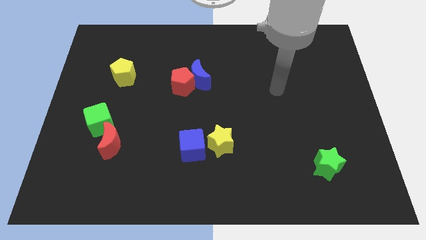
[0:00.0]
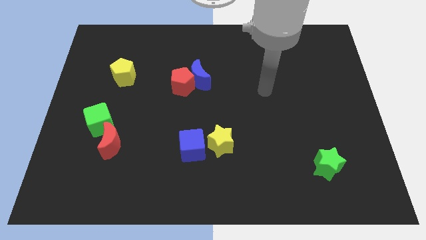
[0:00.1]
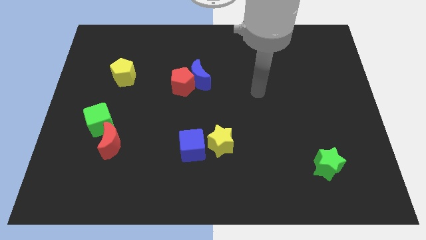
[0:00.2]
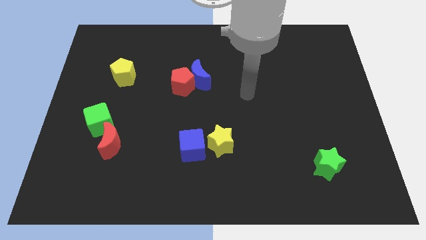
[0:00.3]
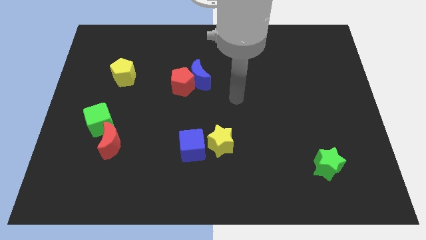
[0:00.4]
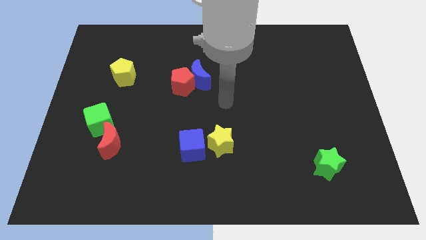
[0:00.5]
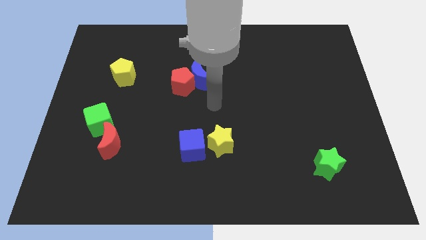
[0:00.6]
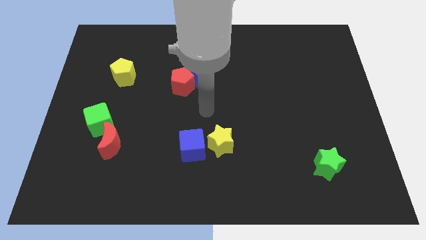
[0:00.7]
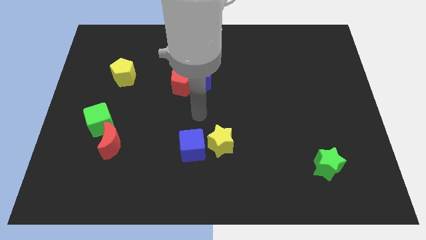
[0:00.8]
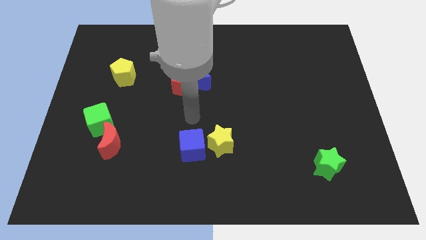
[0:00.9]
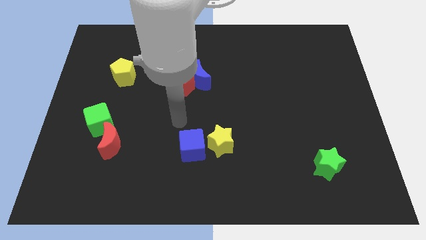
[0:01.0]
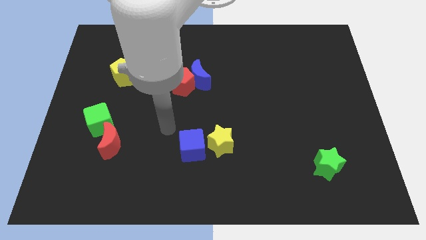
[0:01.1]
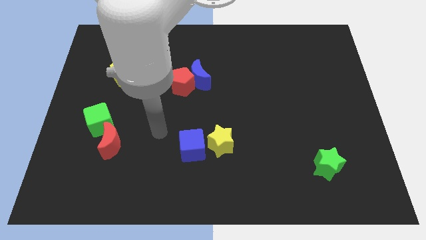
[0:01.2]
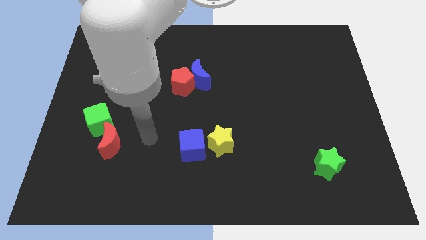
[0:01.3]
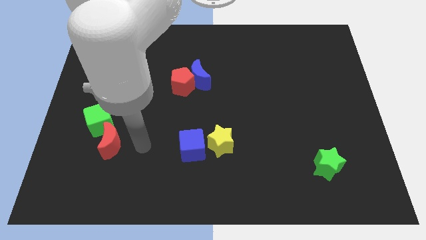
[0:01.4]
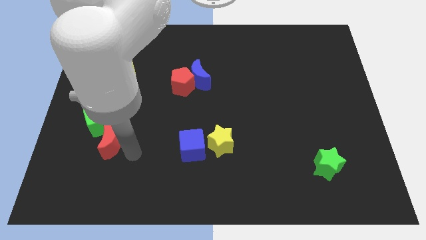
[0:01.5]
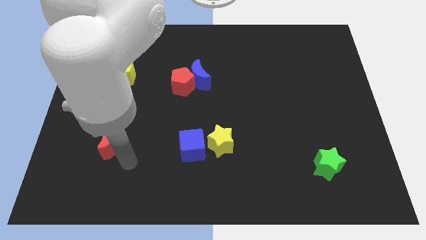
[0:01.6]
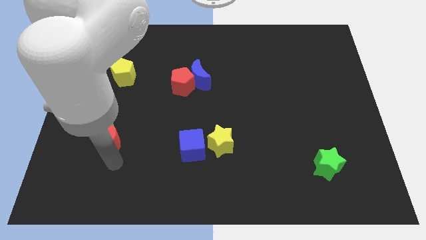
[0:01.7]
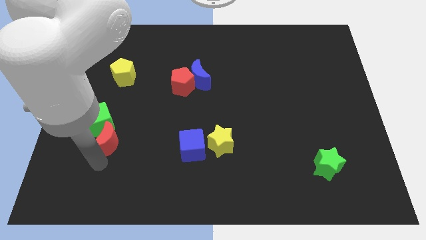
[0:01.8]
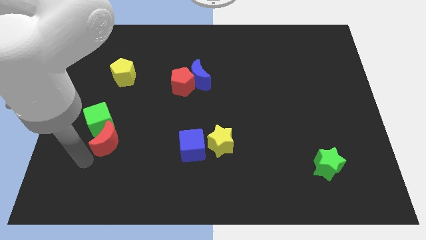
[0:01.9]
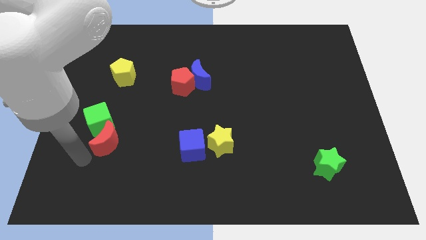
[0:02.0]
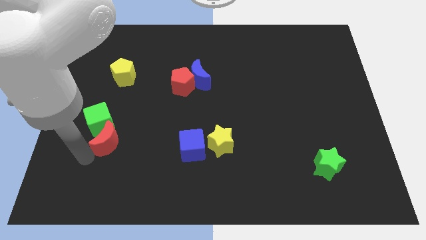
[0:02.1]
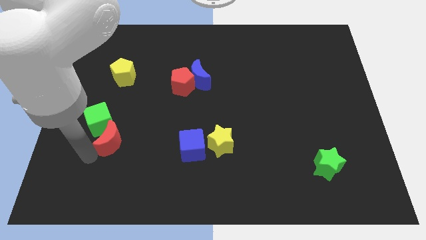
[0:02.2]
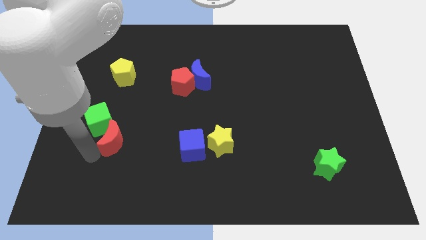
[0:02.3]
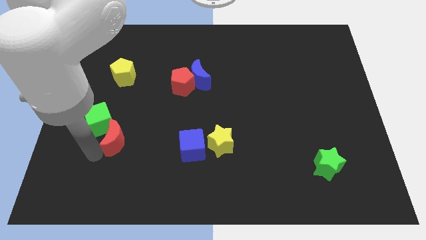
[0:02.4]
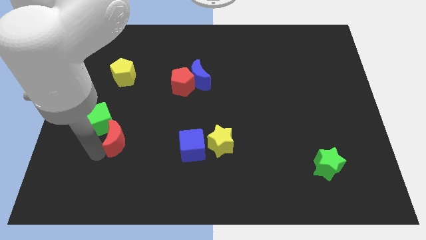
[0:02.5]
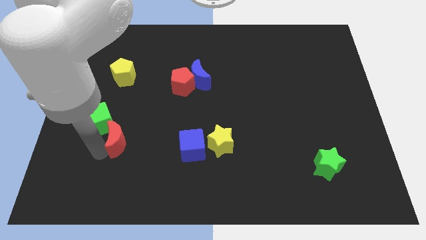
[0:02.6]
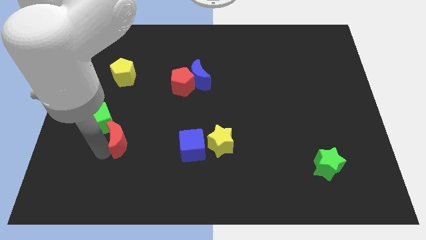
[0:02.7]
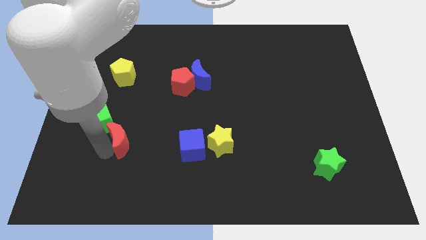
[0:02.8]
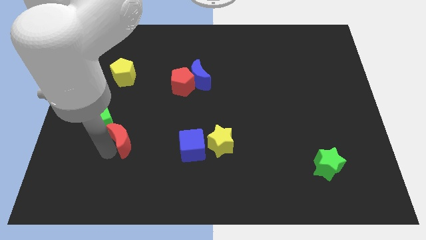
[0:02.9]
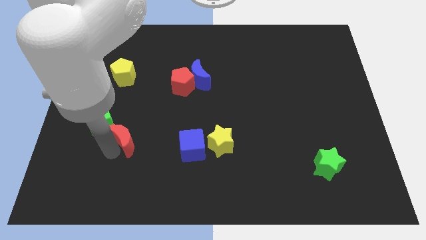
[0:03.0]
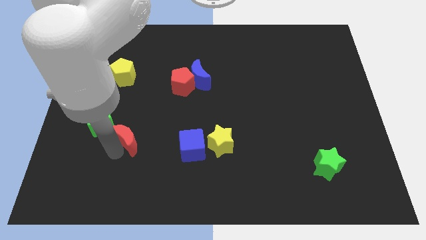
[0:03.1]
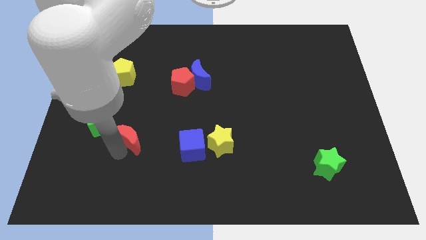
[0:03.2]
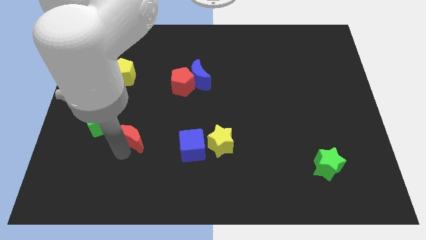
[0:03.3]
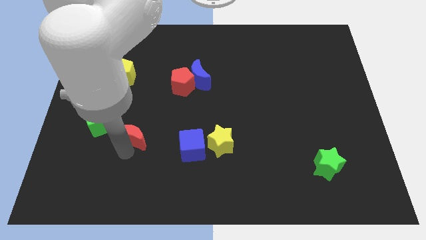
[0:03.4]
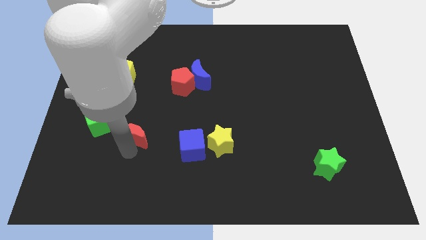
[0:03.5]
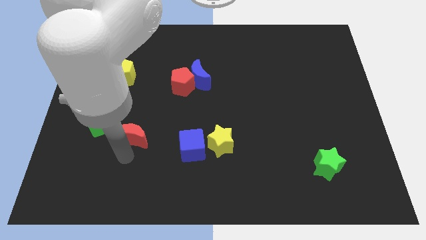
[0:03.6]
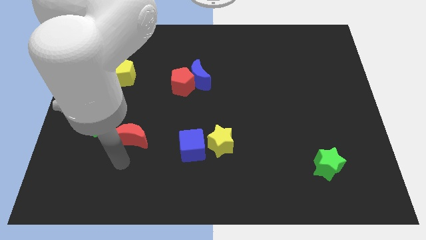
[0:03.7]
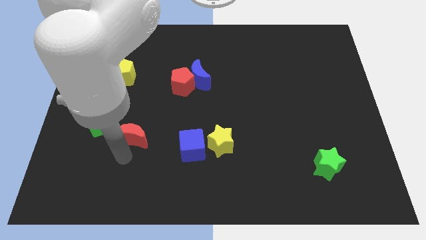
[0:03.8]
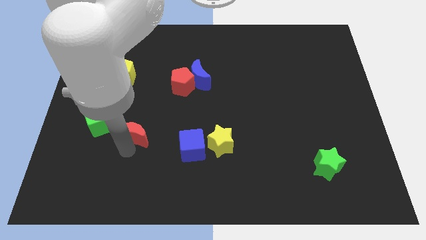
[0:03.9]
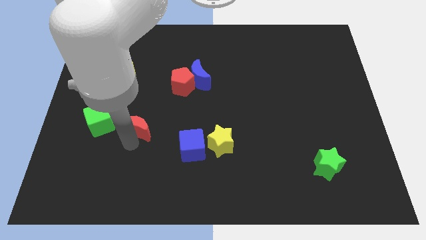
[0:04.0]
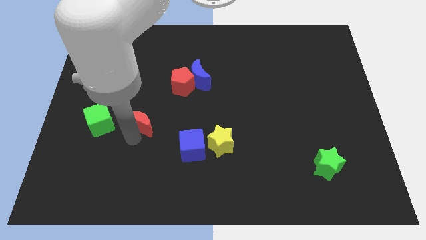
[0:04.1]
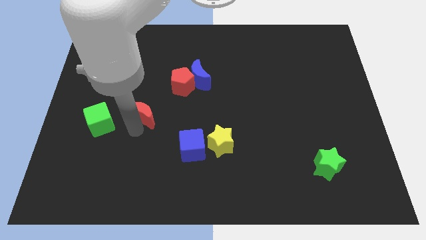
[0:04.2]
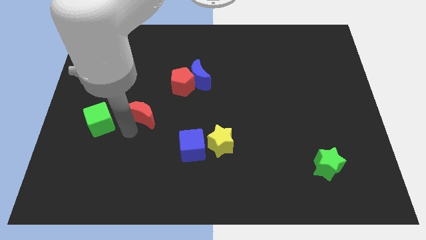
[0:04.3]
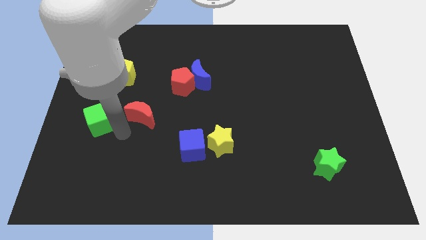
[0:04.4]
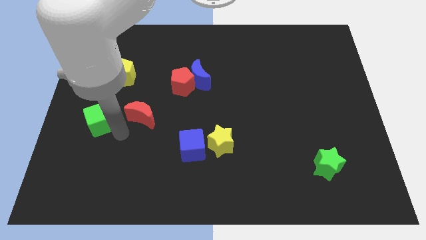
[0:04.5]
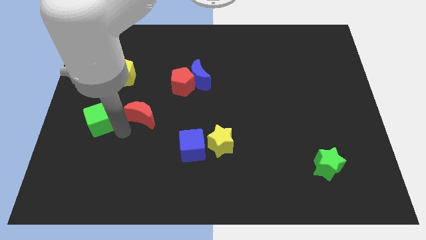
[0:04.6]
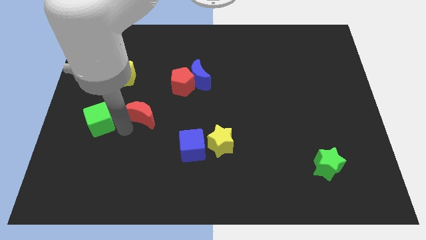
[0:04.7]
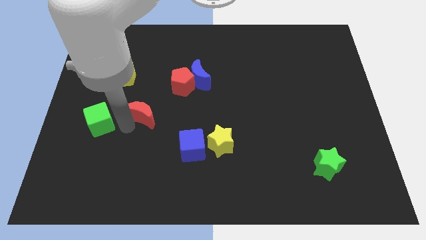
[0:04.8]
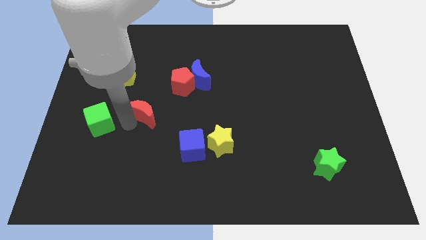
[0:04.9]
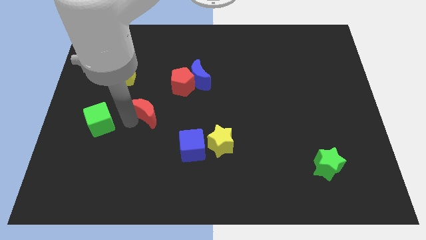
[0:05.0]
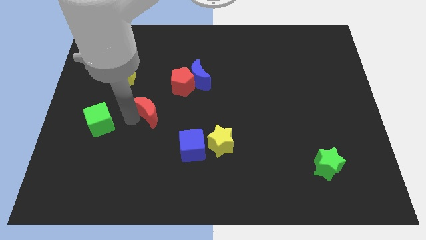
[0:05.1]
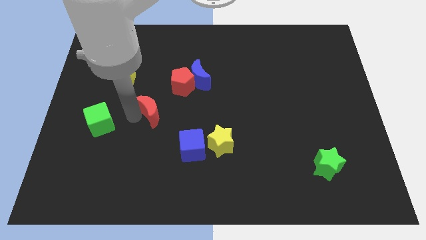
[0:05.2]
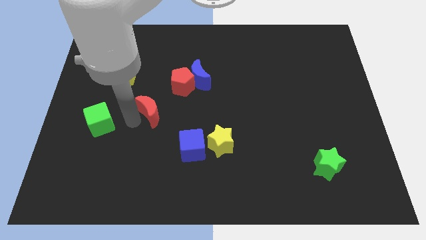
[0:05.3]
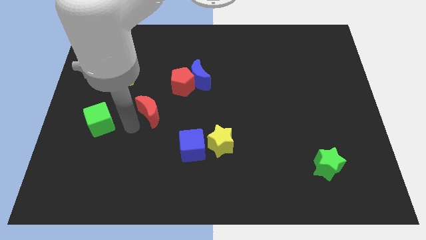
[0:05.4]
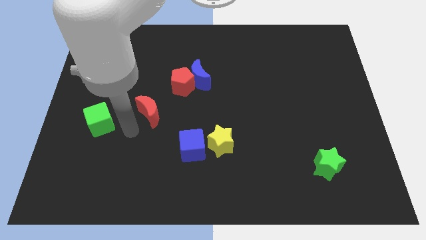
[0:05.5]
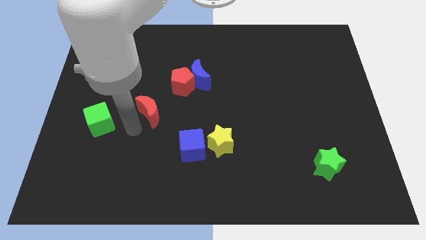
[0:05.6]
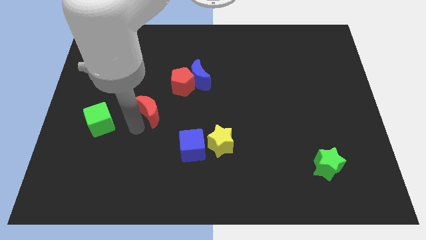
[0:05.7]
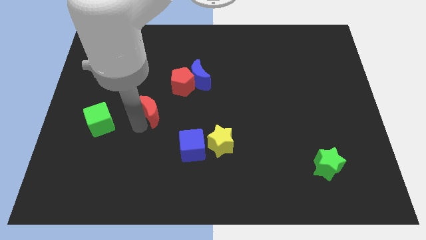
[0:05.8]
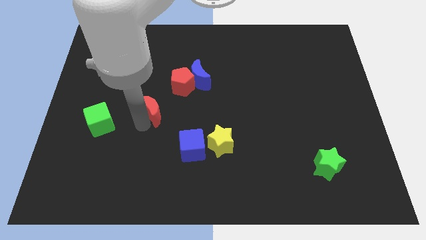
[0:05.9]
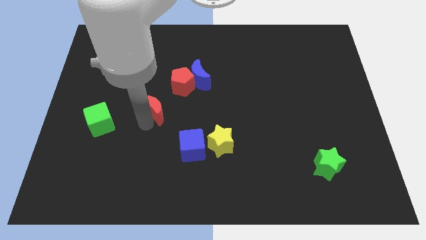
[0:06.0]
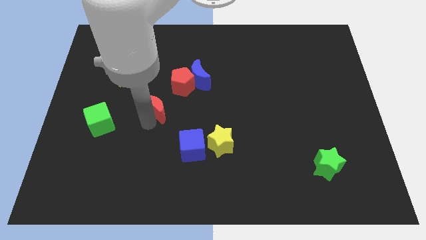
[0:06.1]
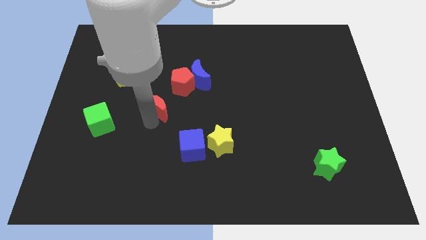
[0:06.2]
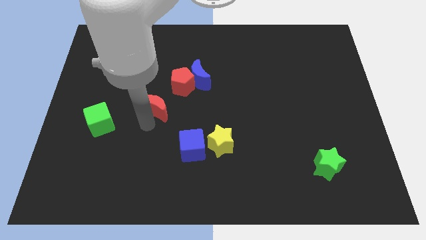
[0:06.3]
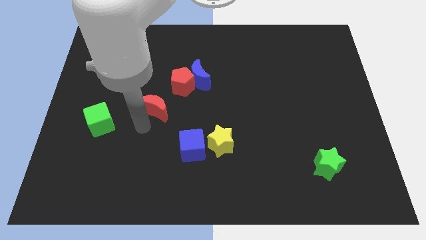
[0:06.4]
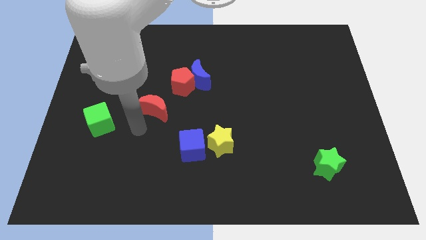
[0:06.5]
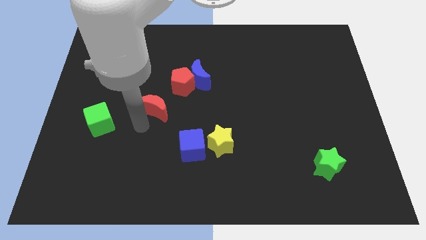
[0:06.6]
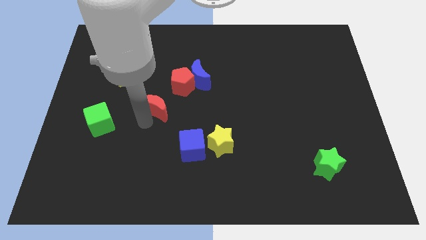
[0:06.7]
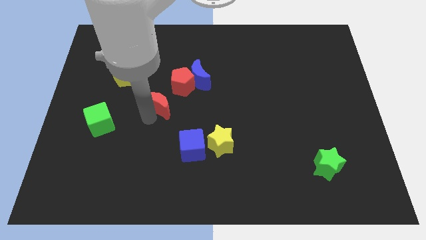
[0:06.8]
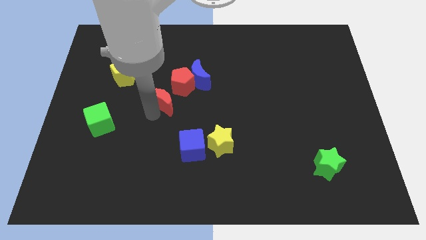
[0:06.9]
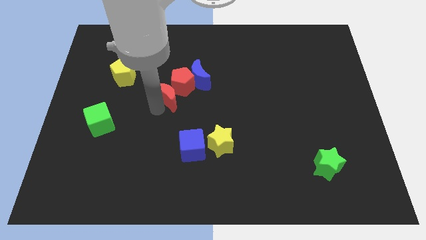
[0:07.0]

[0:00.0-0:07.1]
put the red moon next to the red pentagon

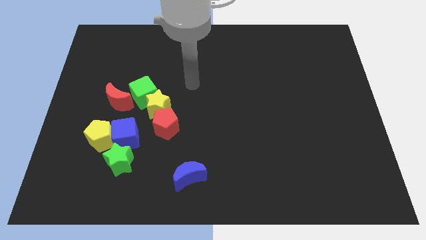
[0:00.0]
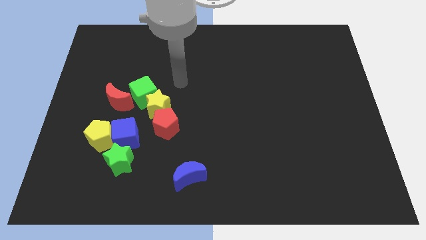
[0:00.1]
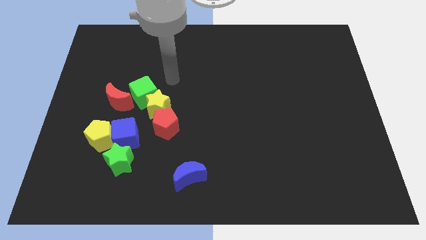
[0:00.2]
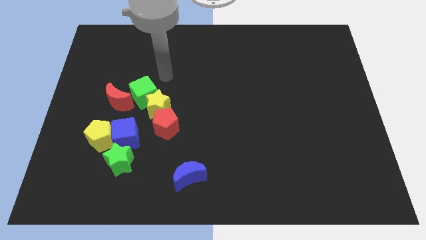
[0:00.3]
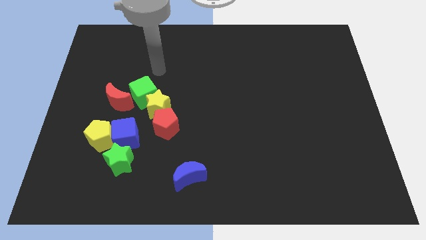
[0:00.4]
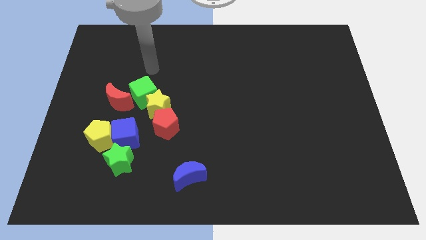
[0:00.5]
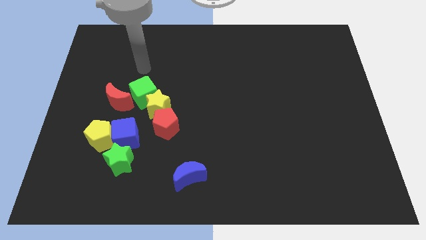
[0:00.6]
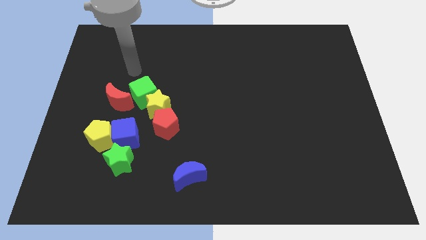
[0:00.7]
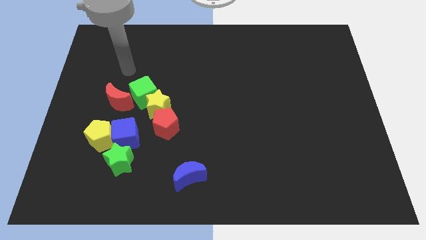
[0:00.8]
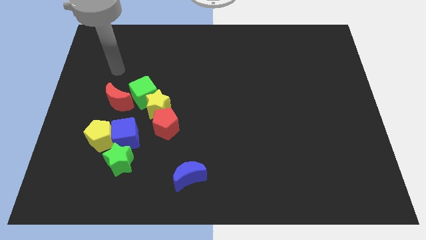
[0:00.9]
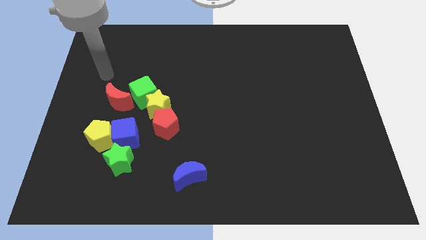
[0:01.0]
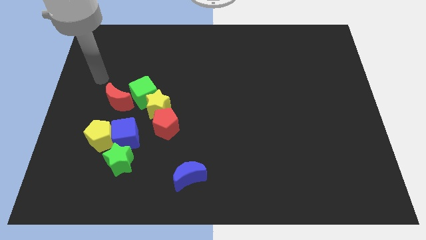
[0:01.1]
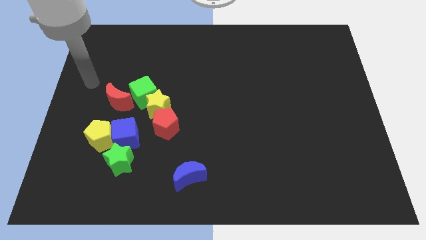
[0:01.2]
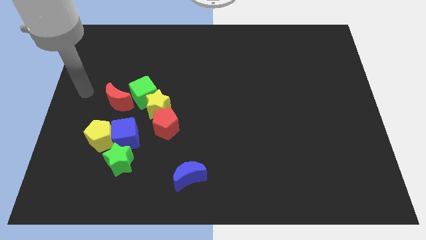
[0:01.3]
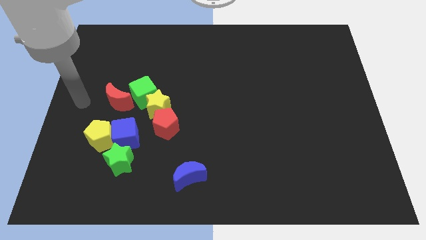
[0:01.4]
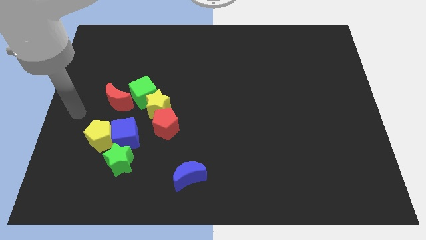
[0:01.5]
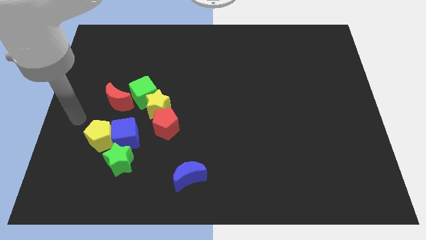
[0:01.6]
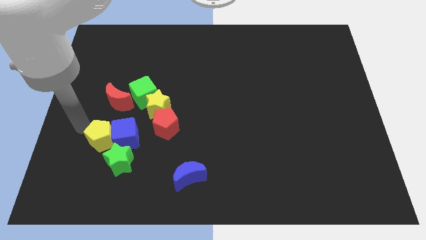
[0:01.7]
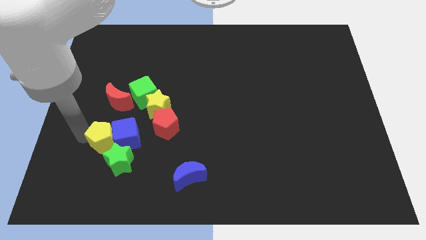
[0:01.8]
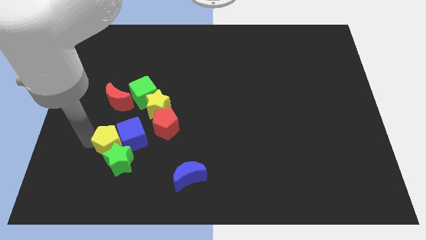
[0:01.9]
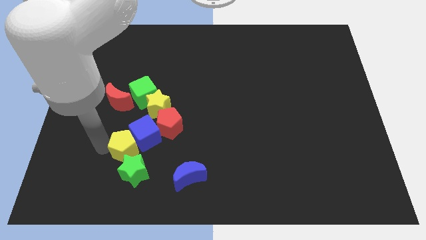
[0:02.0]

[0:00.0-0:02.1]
slide the blue cube close to the red pentagon
